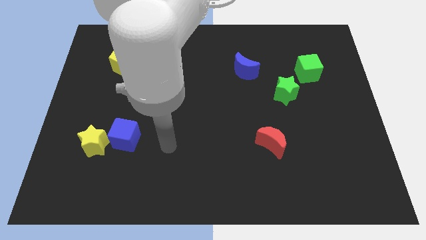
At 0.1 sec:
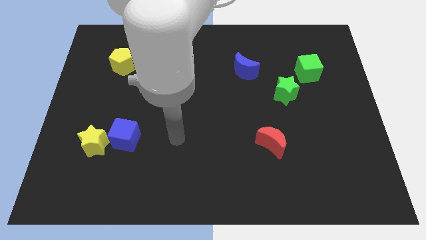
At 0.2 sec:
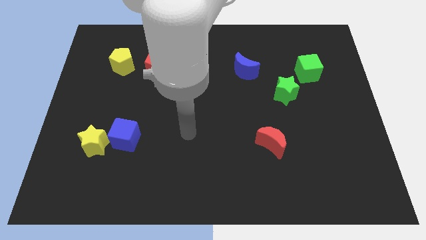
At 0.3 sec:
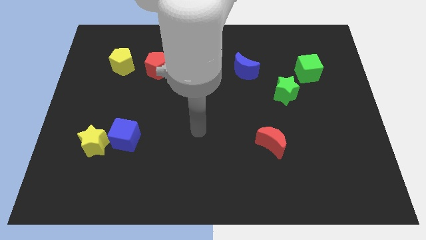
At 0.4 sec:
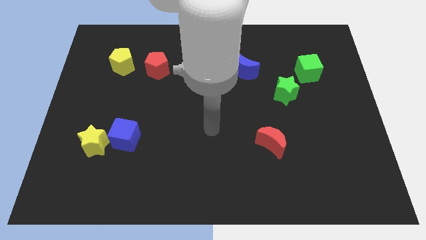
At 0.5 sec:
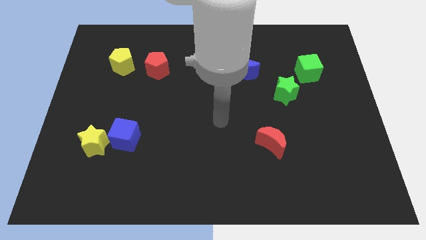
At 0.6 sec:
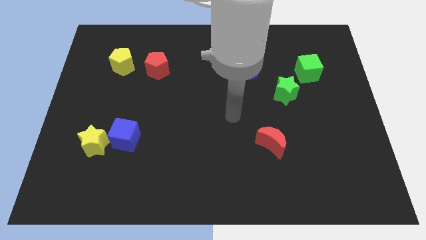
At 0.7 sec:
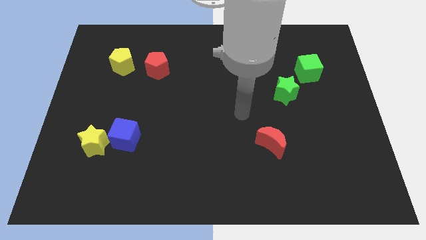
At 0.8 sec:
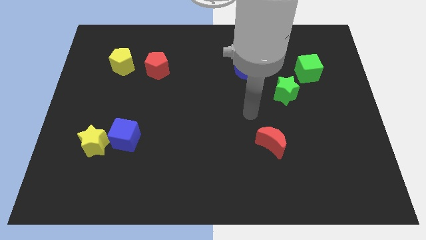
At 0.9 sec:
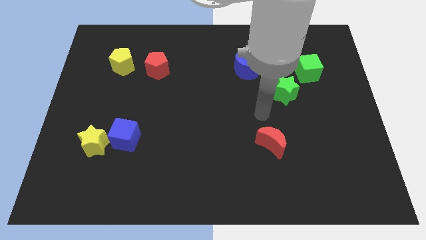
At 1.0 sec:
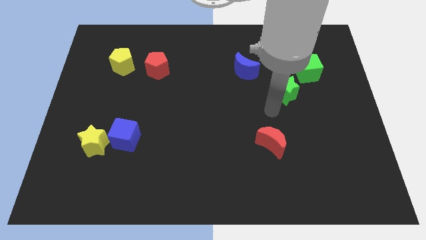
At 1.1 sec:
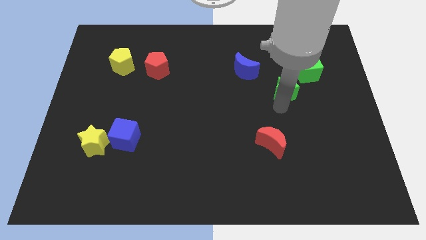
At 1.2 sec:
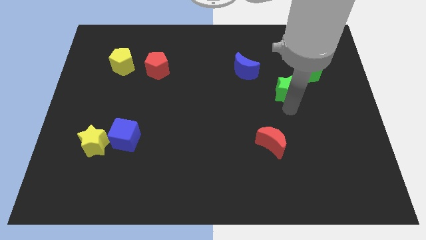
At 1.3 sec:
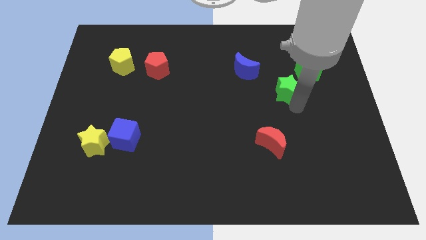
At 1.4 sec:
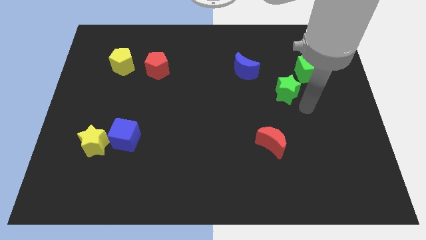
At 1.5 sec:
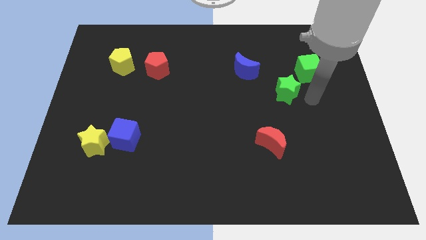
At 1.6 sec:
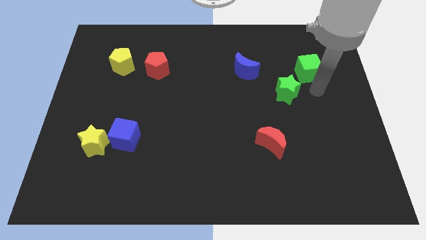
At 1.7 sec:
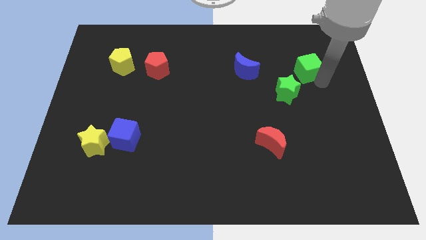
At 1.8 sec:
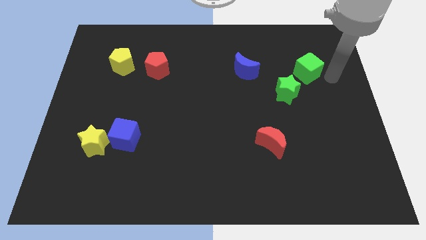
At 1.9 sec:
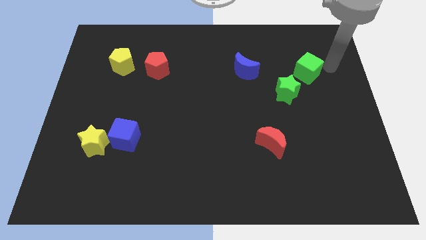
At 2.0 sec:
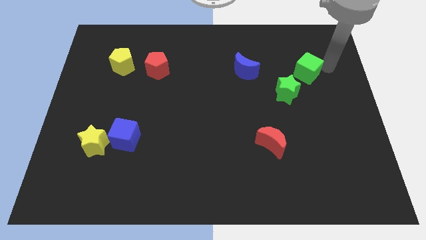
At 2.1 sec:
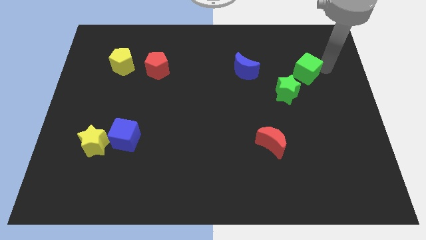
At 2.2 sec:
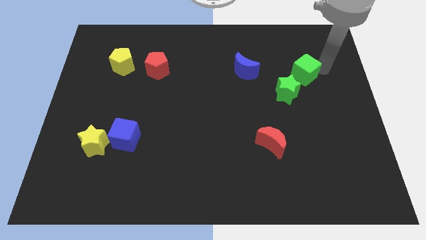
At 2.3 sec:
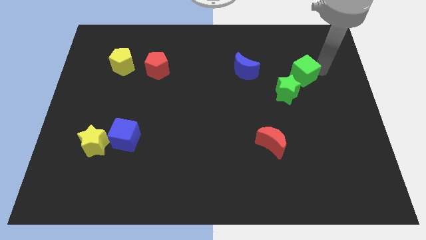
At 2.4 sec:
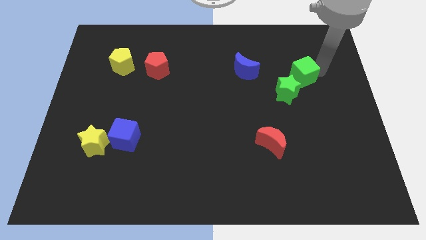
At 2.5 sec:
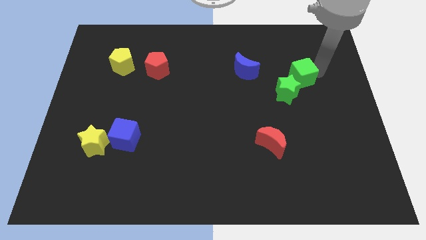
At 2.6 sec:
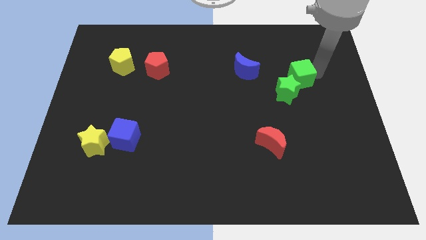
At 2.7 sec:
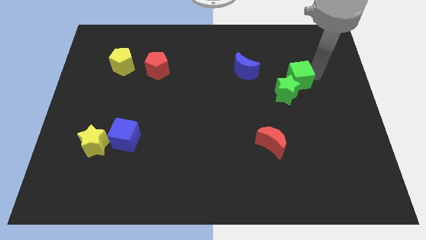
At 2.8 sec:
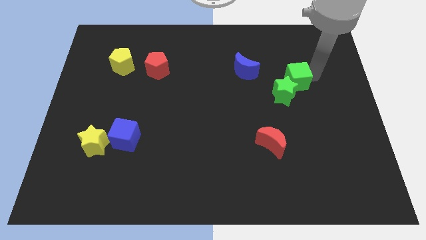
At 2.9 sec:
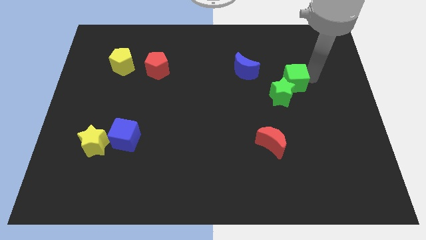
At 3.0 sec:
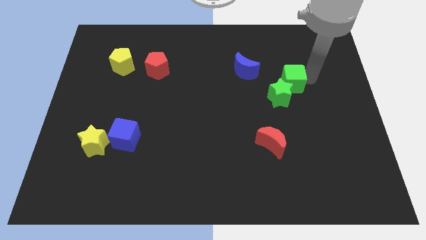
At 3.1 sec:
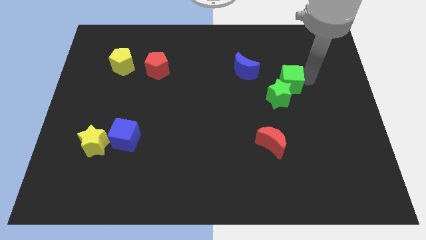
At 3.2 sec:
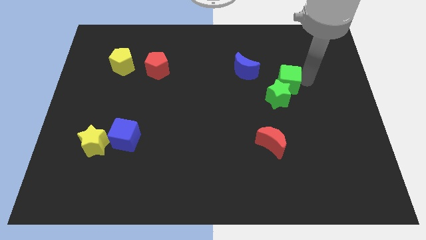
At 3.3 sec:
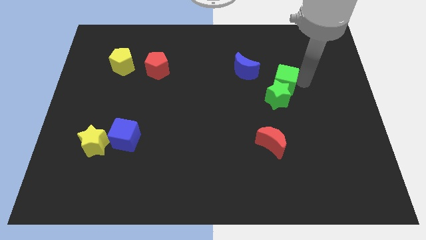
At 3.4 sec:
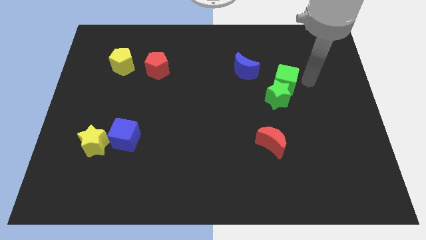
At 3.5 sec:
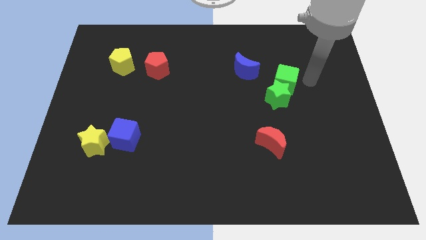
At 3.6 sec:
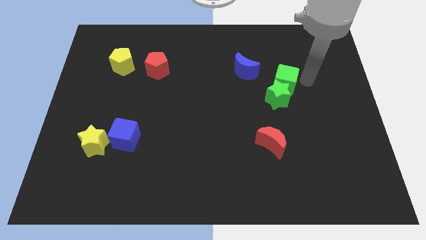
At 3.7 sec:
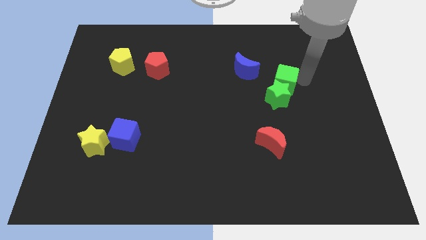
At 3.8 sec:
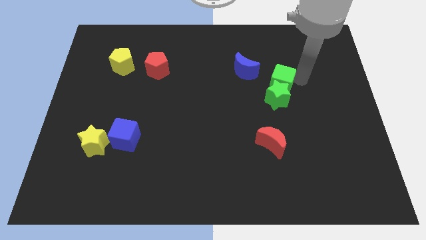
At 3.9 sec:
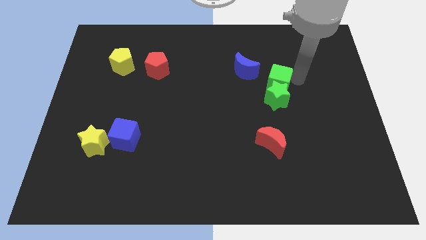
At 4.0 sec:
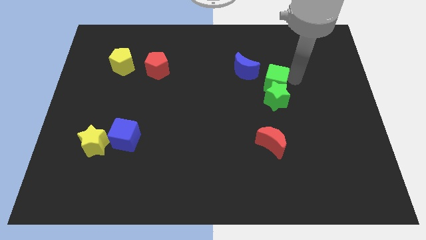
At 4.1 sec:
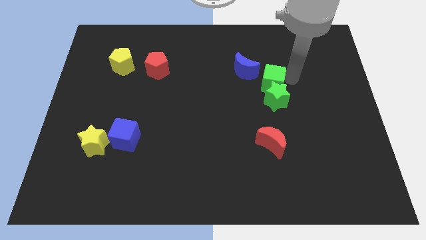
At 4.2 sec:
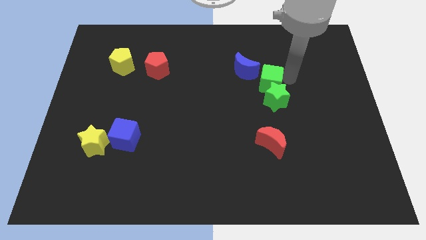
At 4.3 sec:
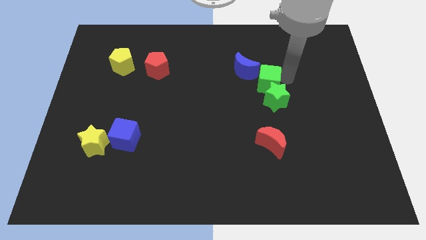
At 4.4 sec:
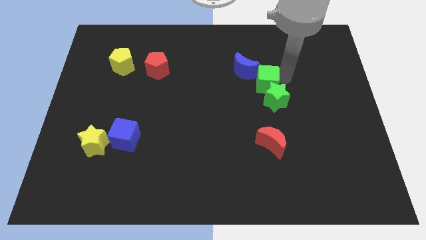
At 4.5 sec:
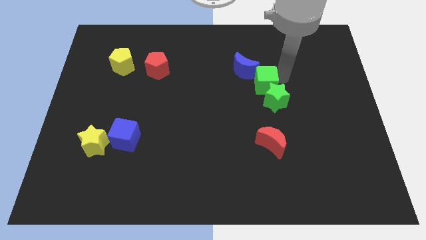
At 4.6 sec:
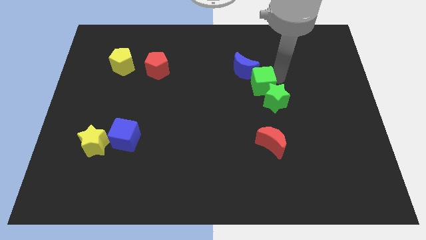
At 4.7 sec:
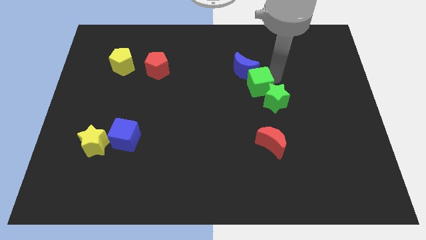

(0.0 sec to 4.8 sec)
put the green cube left of the green star

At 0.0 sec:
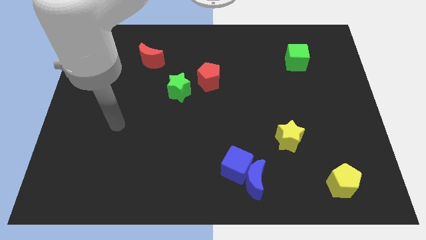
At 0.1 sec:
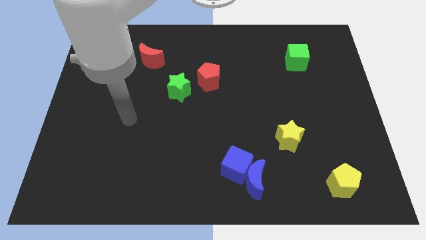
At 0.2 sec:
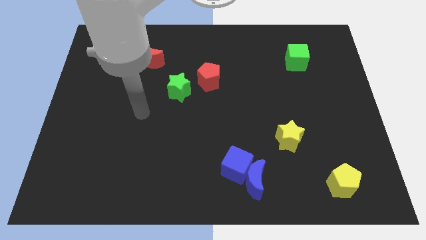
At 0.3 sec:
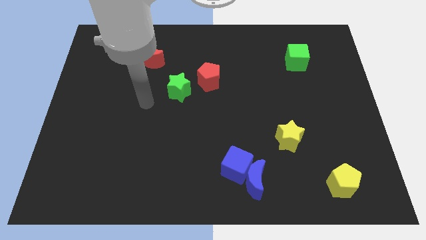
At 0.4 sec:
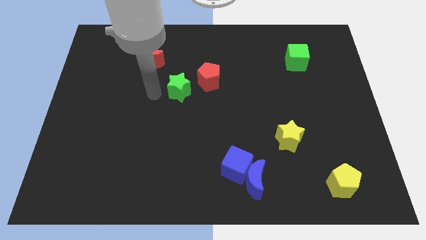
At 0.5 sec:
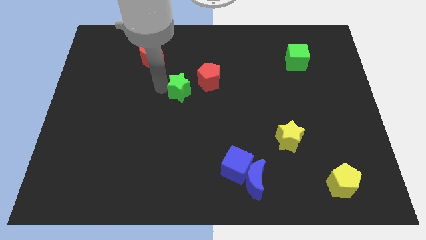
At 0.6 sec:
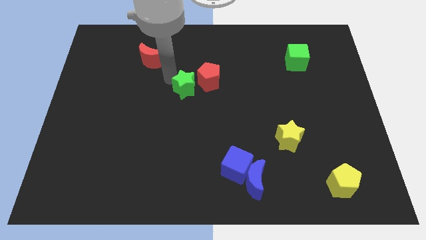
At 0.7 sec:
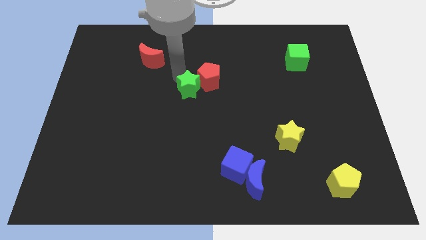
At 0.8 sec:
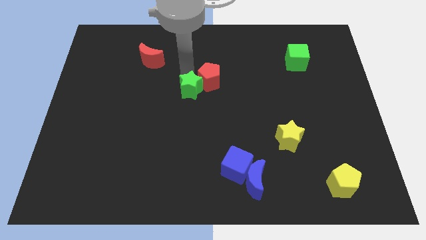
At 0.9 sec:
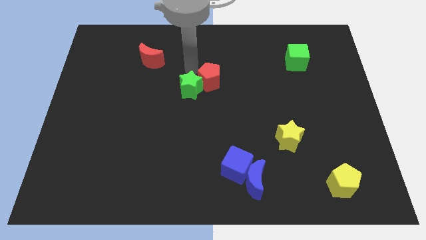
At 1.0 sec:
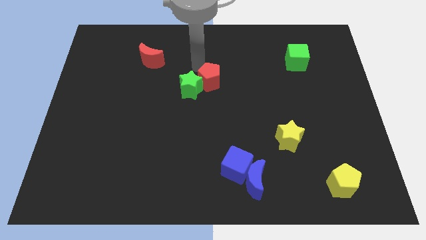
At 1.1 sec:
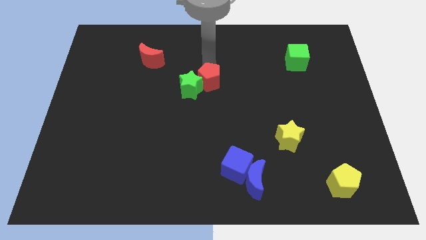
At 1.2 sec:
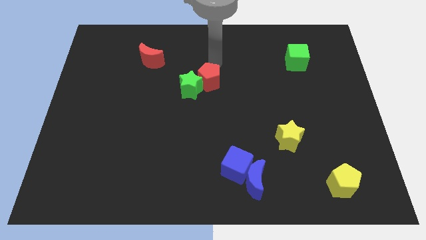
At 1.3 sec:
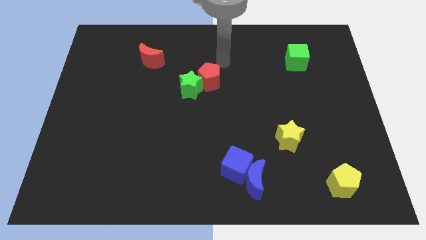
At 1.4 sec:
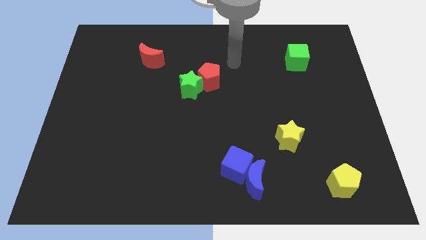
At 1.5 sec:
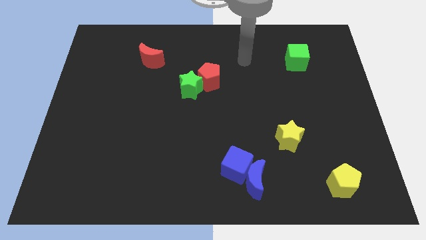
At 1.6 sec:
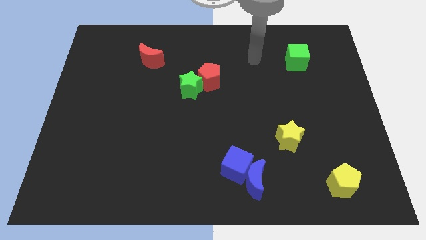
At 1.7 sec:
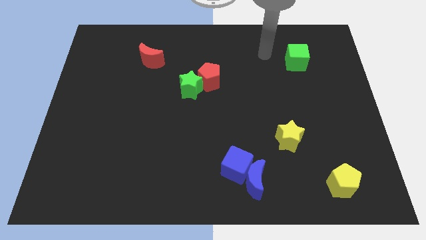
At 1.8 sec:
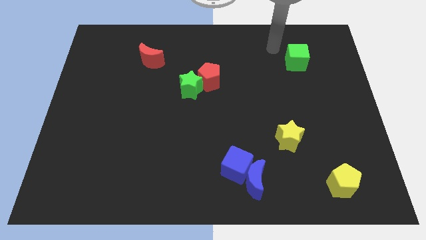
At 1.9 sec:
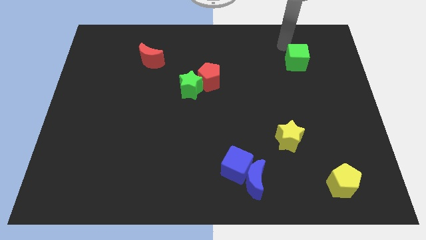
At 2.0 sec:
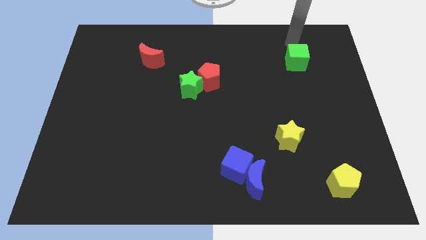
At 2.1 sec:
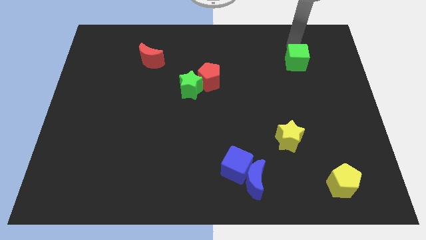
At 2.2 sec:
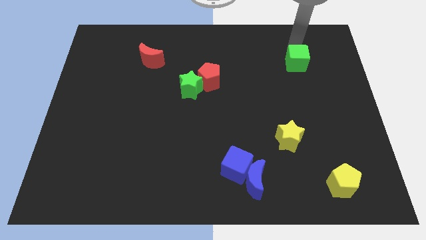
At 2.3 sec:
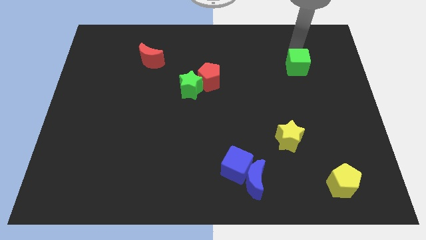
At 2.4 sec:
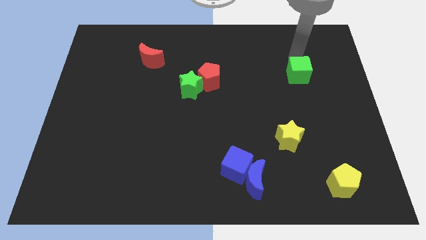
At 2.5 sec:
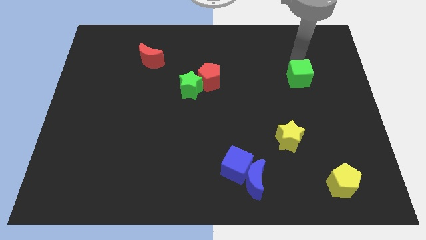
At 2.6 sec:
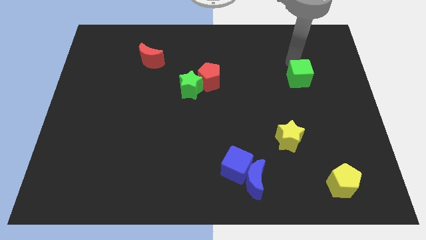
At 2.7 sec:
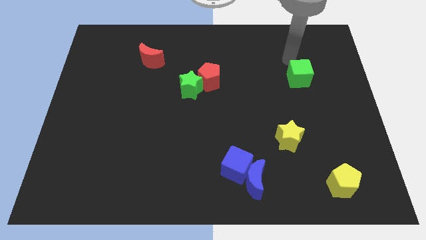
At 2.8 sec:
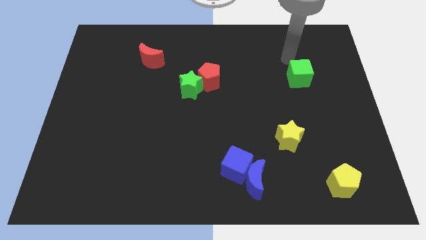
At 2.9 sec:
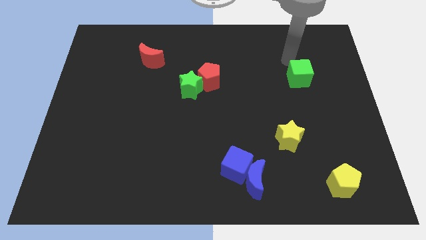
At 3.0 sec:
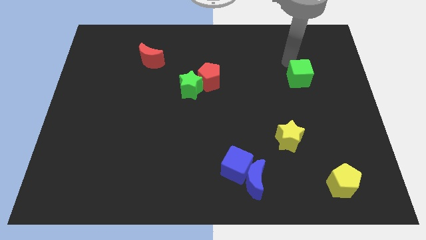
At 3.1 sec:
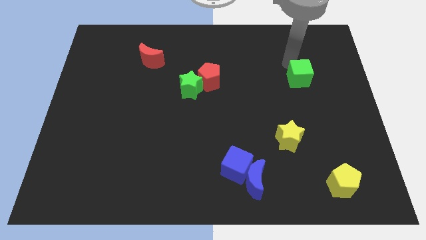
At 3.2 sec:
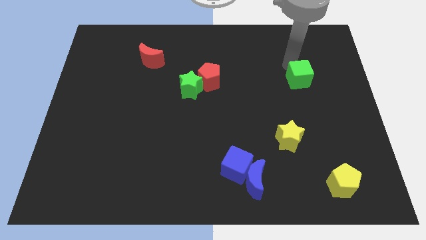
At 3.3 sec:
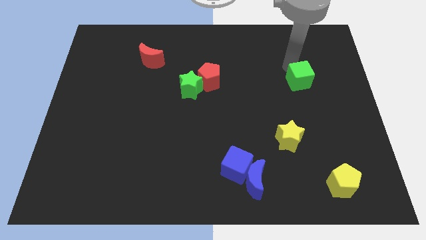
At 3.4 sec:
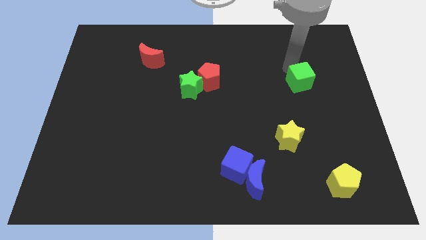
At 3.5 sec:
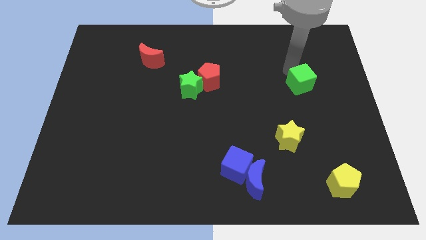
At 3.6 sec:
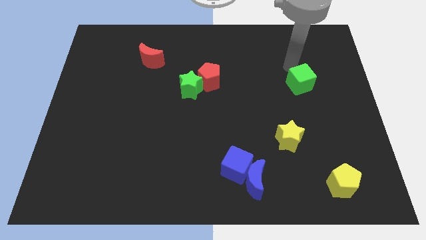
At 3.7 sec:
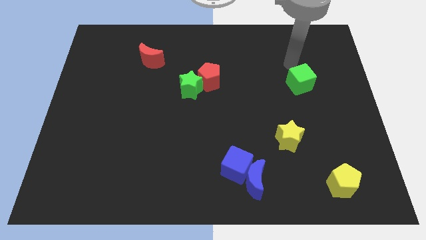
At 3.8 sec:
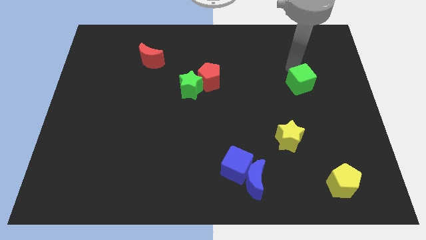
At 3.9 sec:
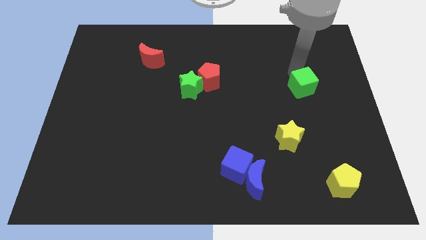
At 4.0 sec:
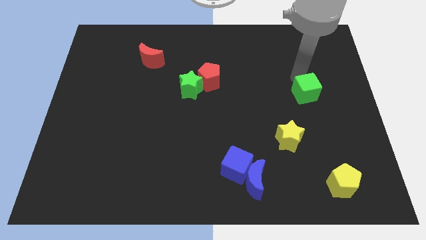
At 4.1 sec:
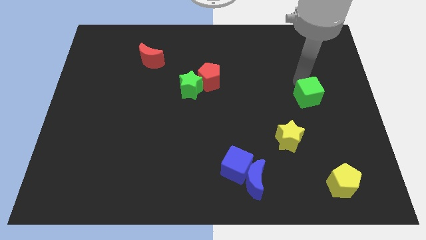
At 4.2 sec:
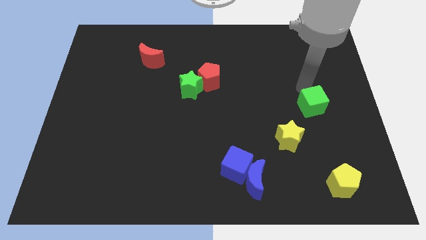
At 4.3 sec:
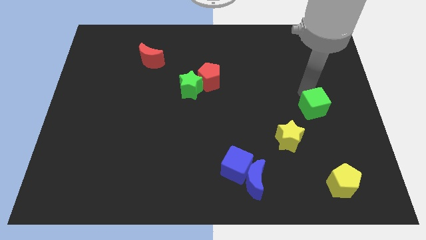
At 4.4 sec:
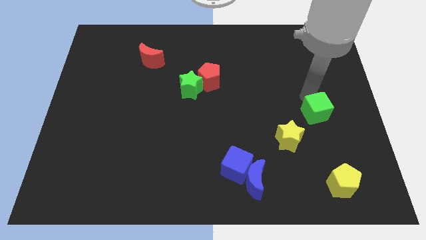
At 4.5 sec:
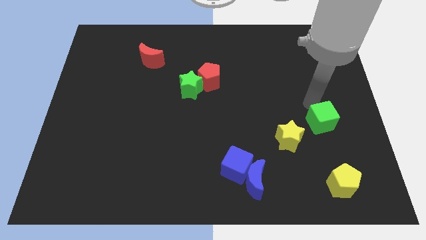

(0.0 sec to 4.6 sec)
put the green cube to the right side of the yellow star
